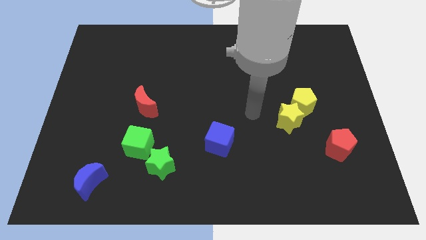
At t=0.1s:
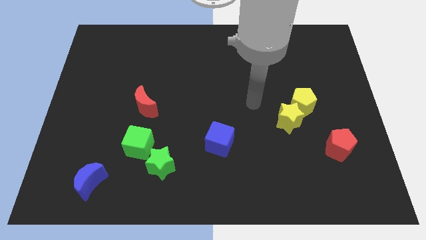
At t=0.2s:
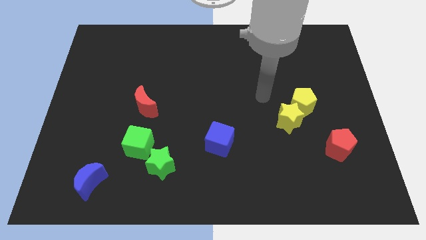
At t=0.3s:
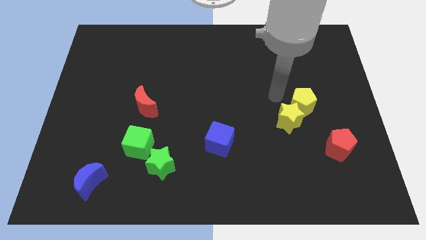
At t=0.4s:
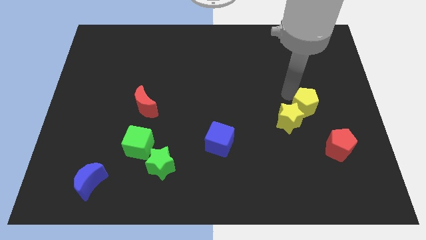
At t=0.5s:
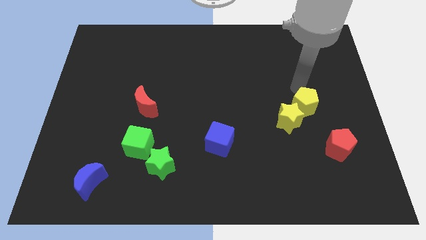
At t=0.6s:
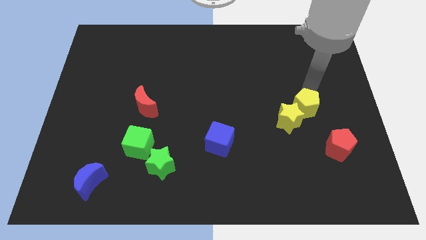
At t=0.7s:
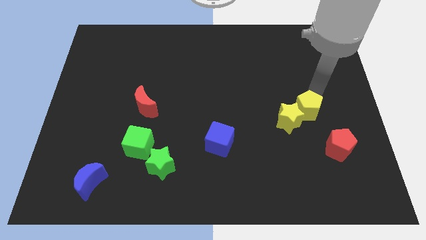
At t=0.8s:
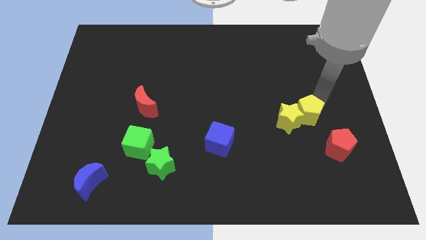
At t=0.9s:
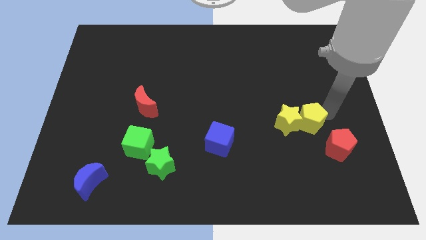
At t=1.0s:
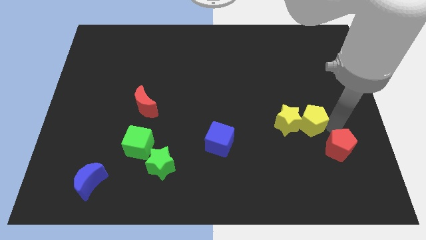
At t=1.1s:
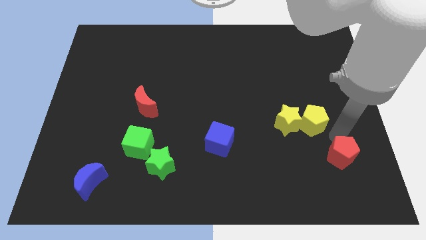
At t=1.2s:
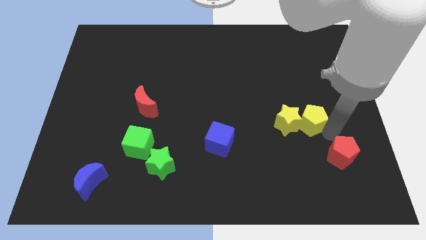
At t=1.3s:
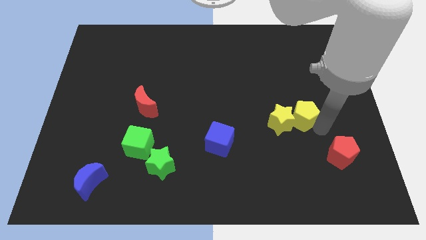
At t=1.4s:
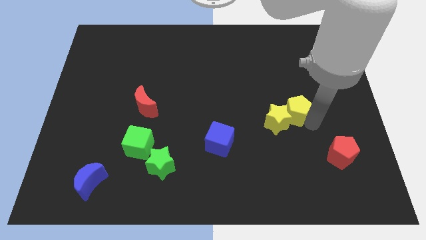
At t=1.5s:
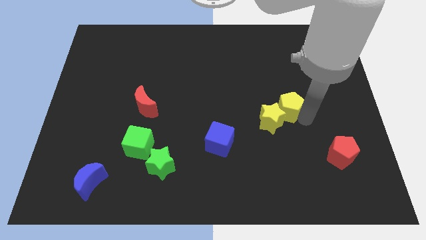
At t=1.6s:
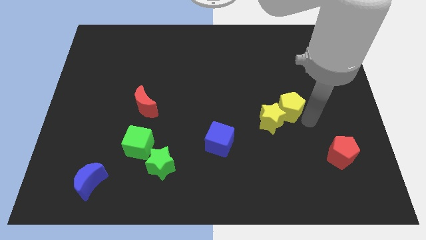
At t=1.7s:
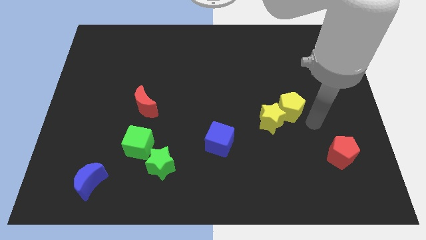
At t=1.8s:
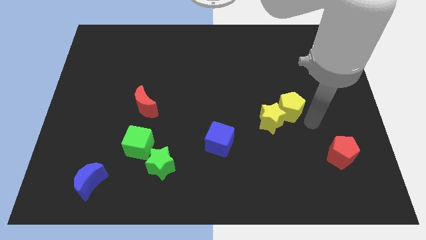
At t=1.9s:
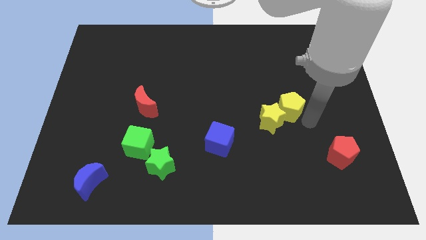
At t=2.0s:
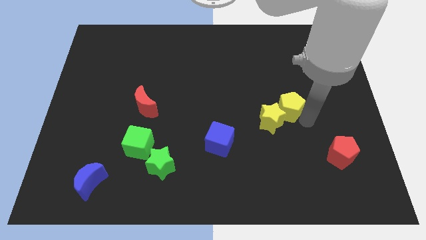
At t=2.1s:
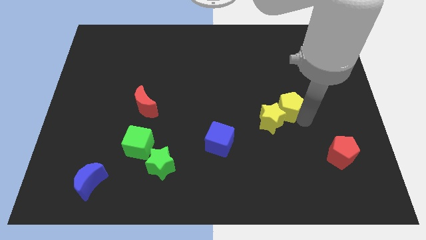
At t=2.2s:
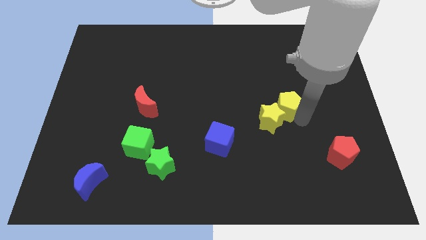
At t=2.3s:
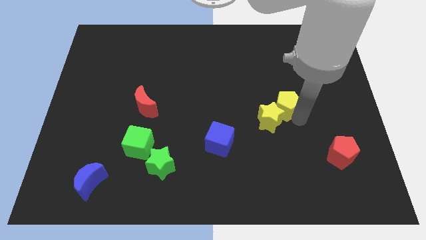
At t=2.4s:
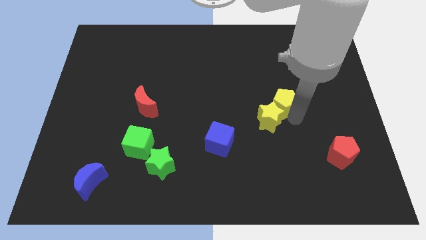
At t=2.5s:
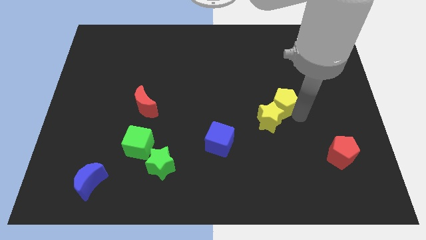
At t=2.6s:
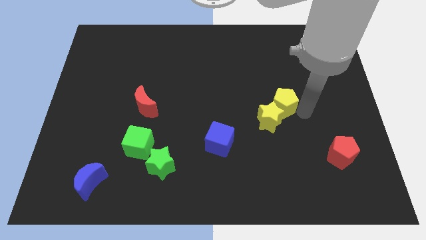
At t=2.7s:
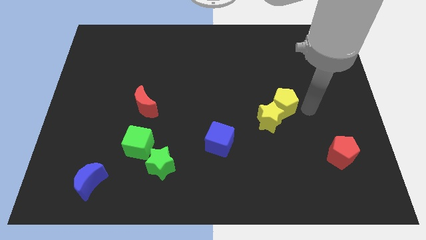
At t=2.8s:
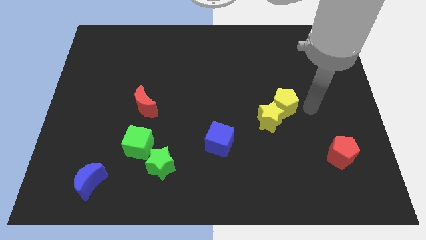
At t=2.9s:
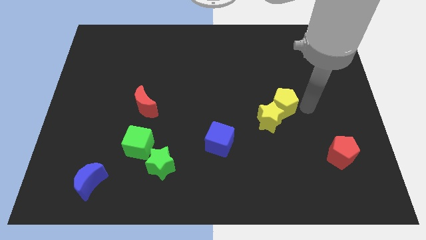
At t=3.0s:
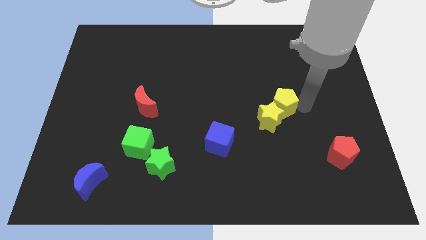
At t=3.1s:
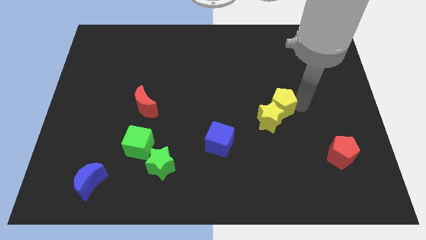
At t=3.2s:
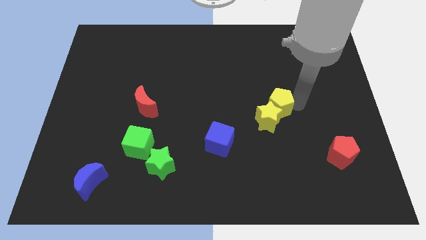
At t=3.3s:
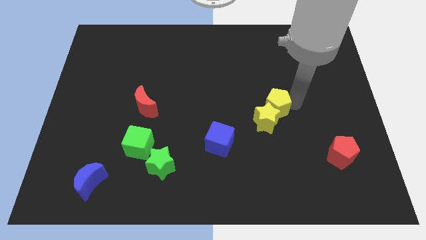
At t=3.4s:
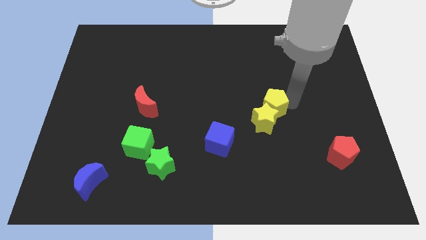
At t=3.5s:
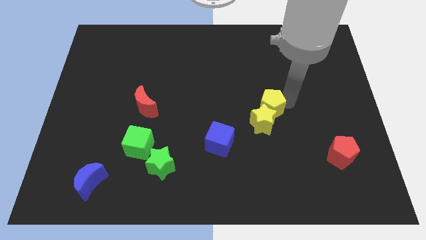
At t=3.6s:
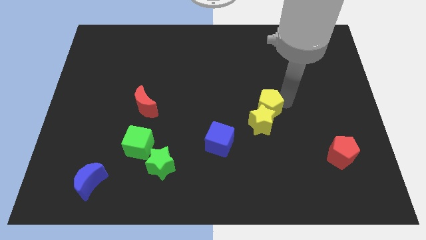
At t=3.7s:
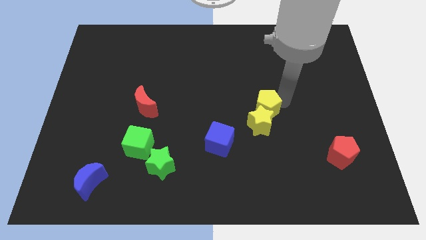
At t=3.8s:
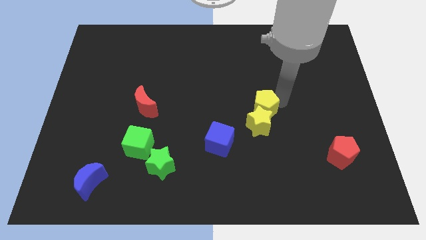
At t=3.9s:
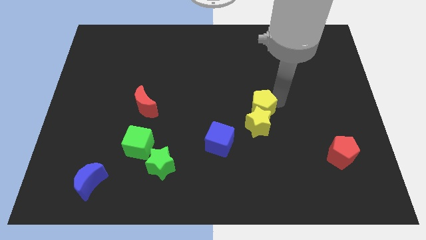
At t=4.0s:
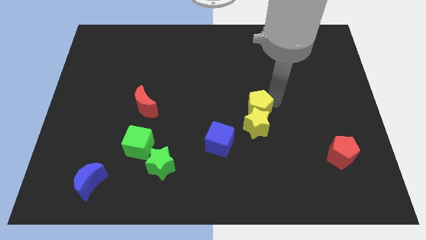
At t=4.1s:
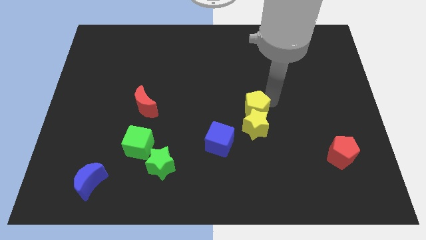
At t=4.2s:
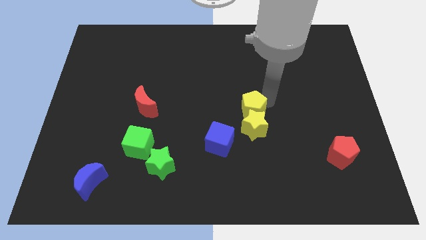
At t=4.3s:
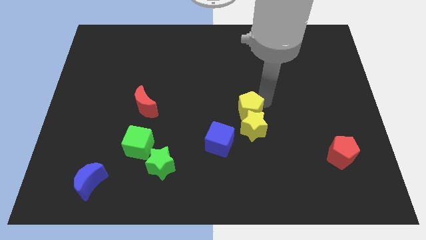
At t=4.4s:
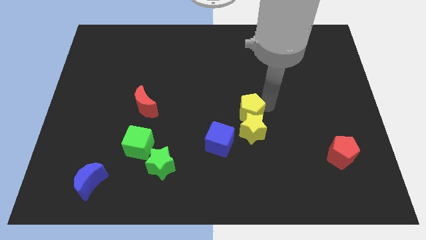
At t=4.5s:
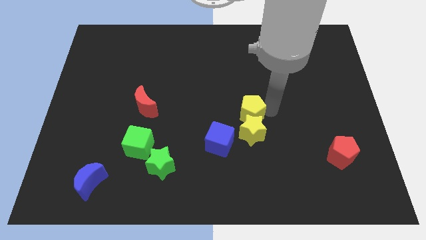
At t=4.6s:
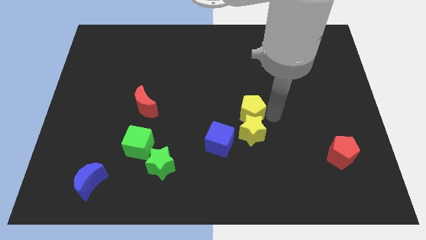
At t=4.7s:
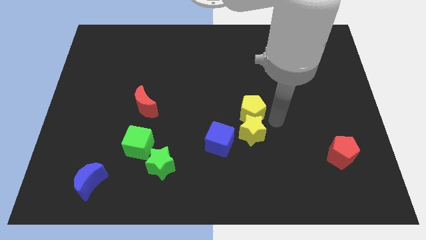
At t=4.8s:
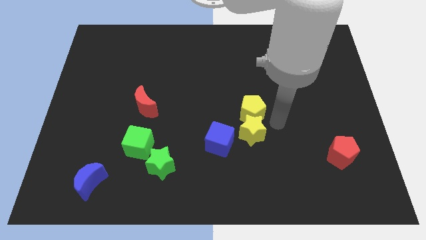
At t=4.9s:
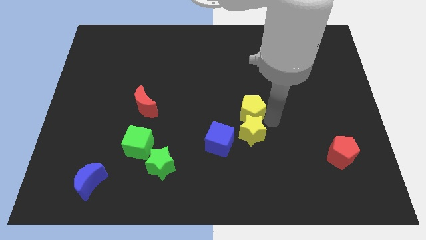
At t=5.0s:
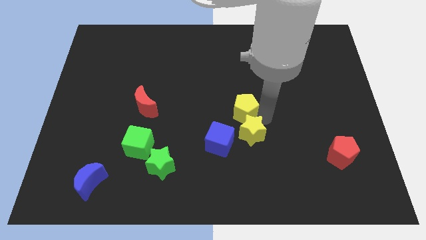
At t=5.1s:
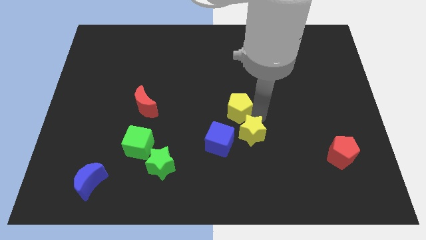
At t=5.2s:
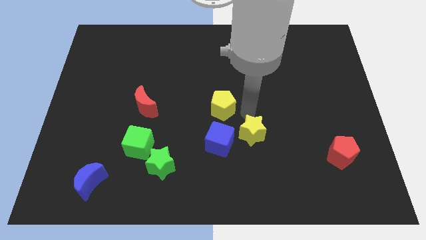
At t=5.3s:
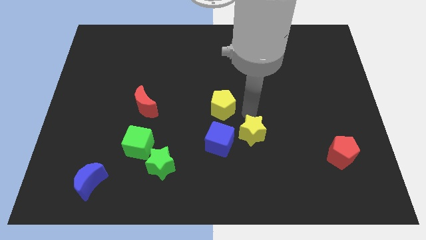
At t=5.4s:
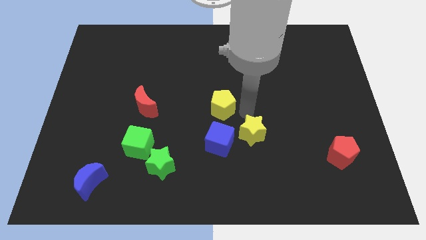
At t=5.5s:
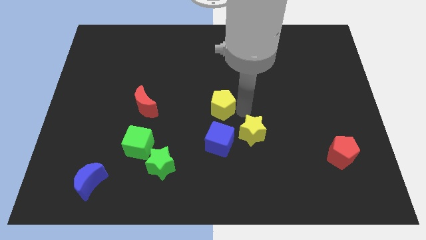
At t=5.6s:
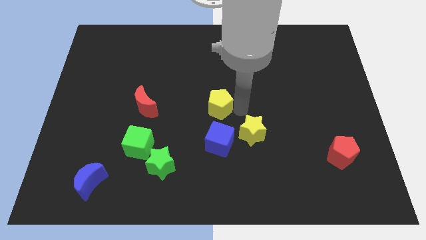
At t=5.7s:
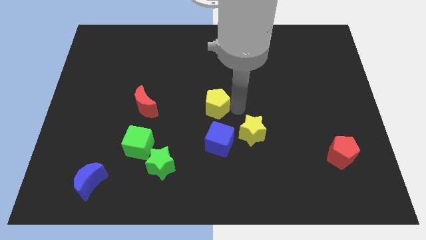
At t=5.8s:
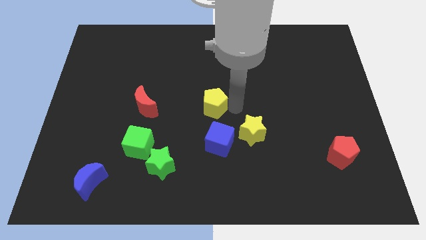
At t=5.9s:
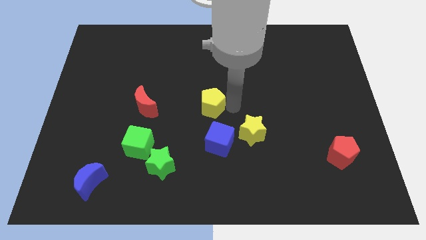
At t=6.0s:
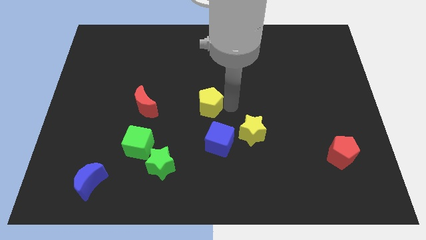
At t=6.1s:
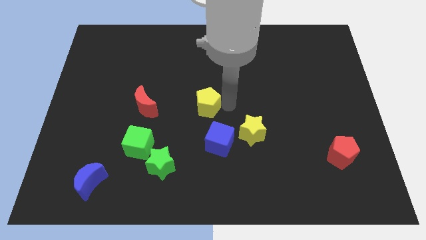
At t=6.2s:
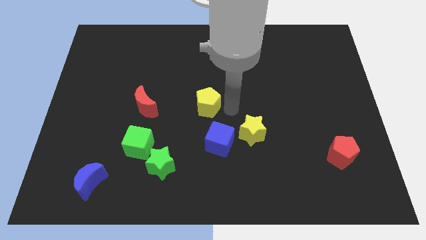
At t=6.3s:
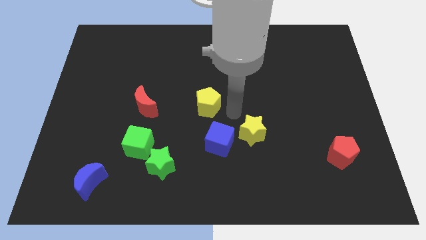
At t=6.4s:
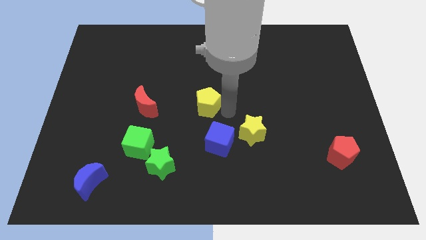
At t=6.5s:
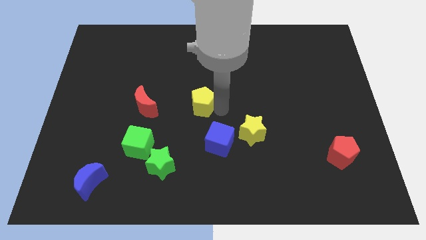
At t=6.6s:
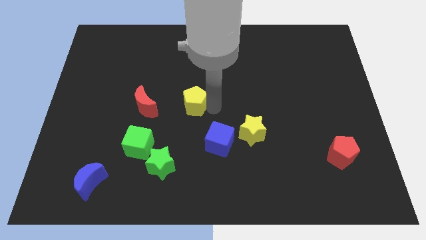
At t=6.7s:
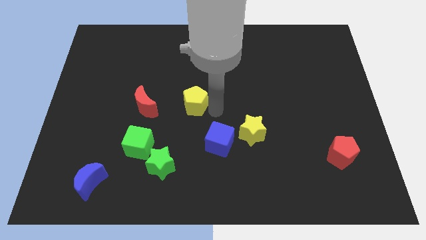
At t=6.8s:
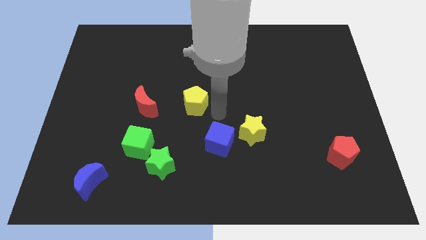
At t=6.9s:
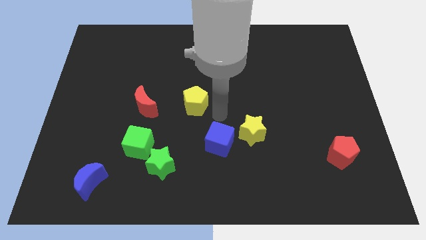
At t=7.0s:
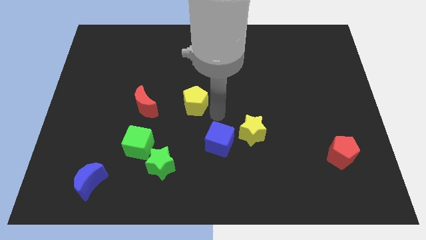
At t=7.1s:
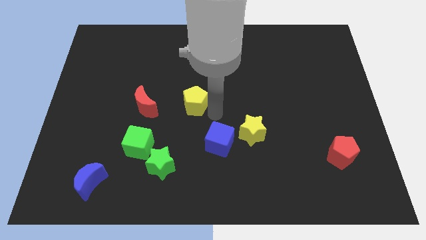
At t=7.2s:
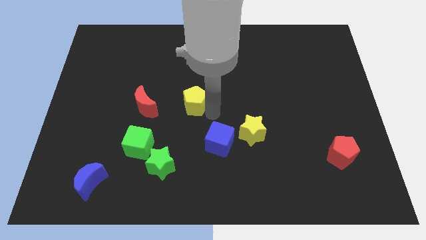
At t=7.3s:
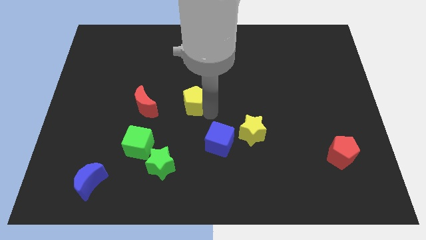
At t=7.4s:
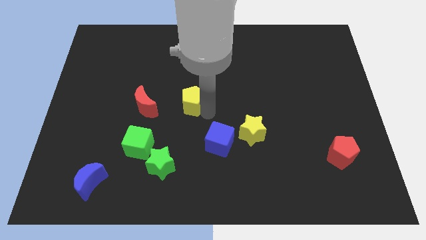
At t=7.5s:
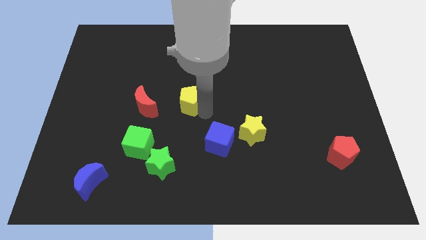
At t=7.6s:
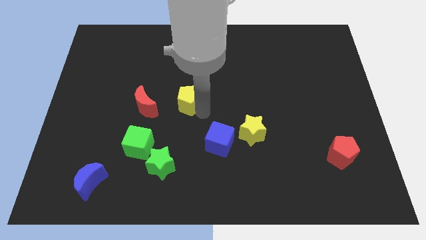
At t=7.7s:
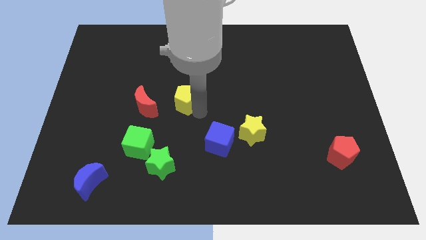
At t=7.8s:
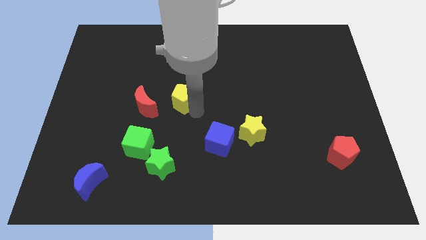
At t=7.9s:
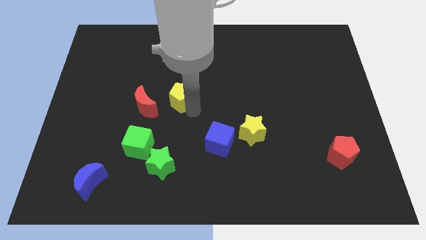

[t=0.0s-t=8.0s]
move the yellow pentagon to the top right side of the red moon
